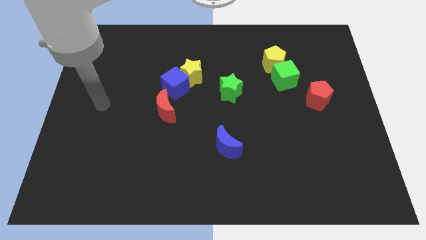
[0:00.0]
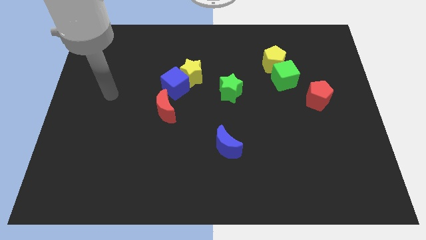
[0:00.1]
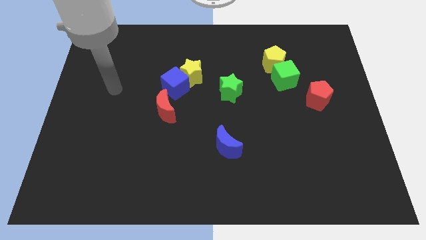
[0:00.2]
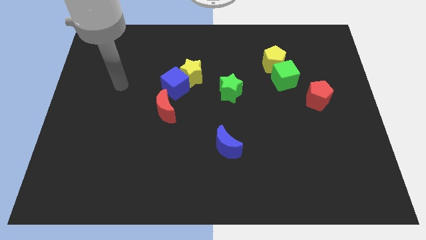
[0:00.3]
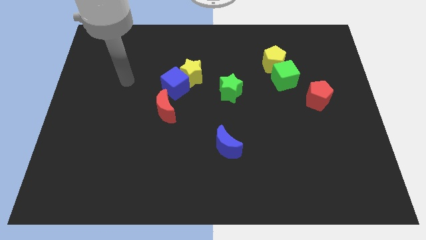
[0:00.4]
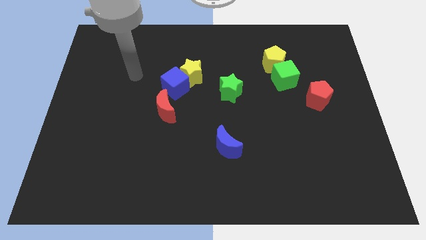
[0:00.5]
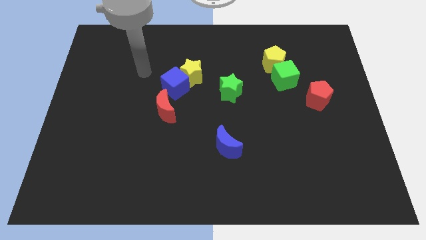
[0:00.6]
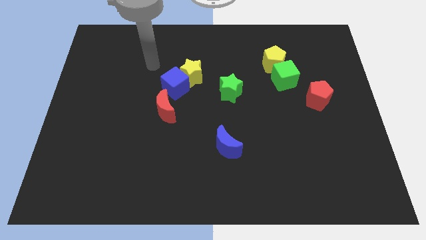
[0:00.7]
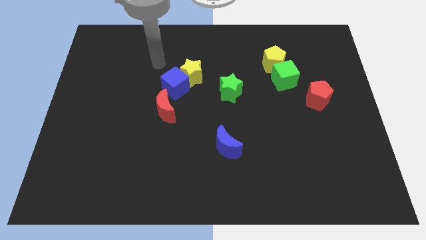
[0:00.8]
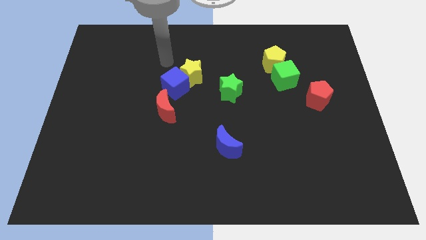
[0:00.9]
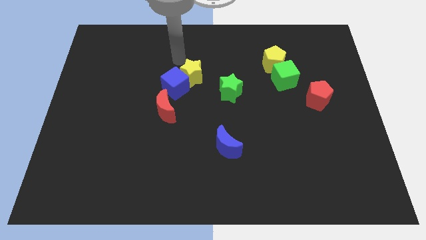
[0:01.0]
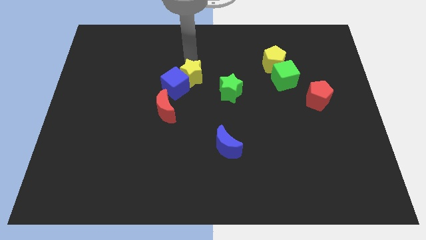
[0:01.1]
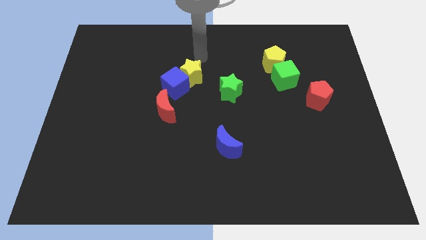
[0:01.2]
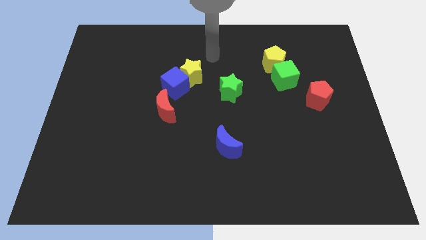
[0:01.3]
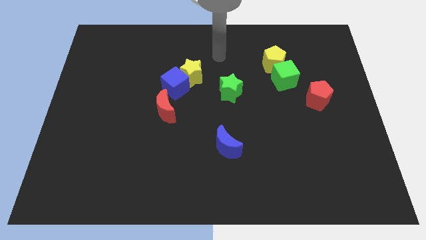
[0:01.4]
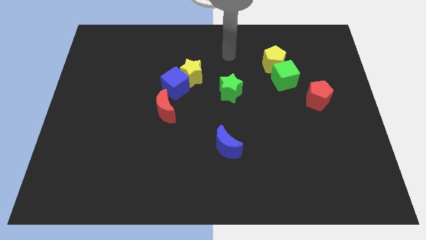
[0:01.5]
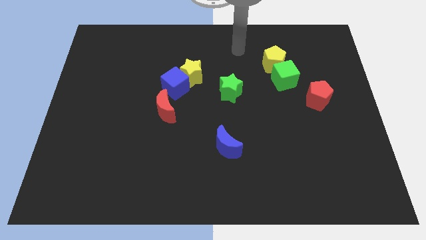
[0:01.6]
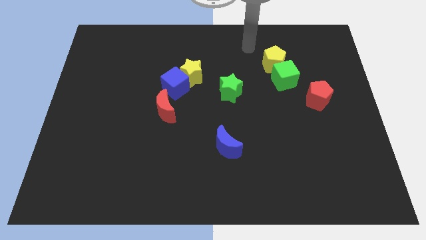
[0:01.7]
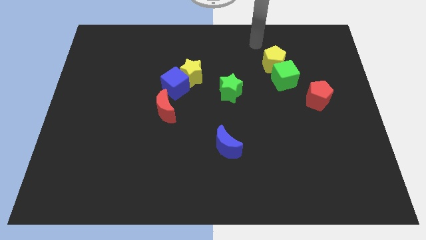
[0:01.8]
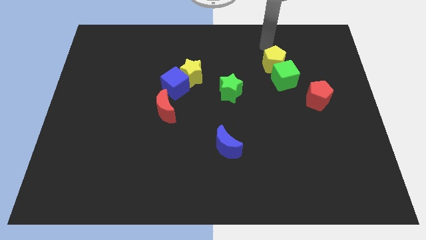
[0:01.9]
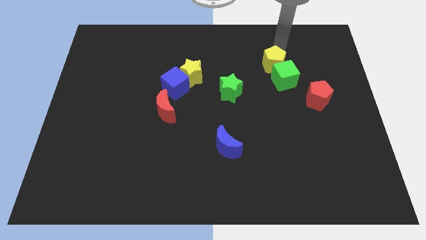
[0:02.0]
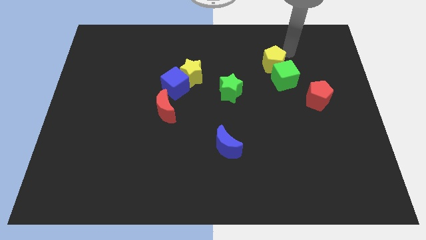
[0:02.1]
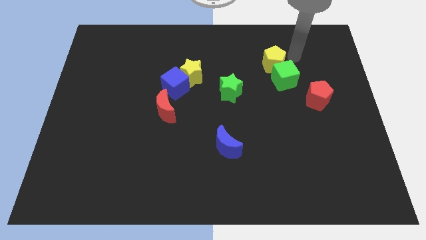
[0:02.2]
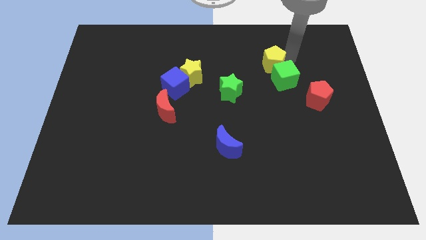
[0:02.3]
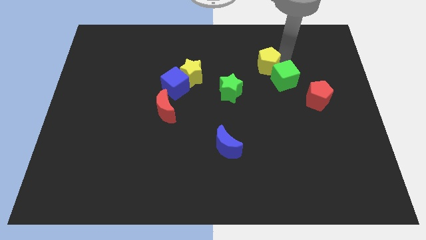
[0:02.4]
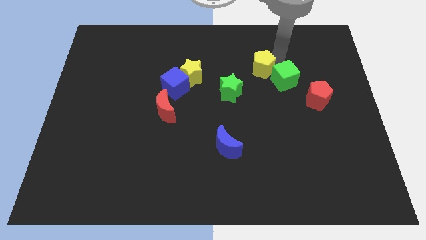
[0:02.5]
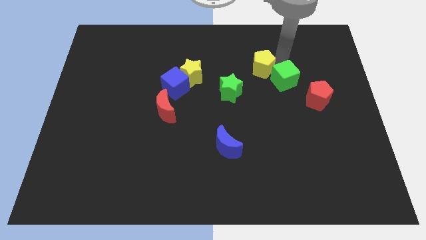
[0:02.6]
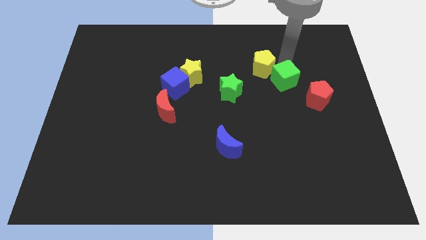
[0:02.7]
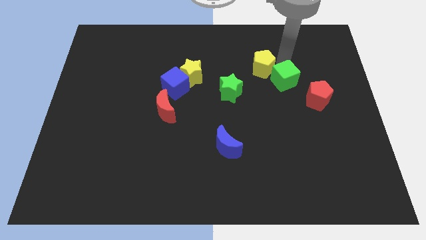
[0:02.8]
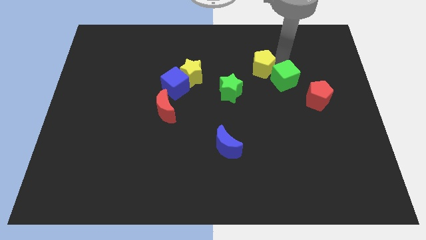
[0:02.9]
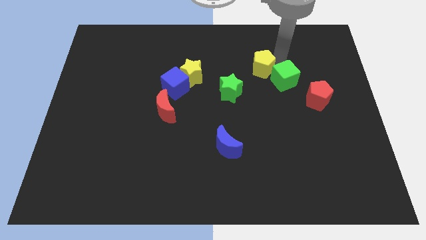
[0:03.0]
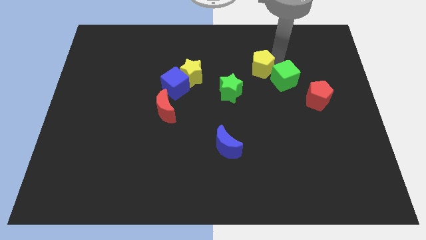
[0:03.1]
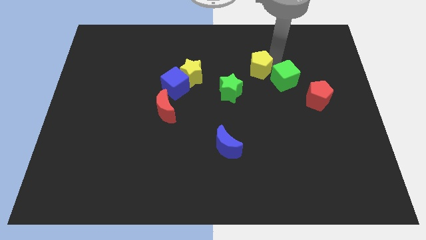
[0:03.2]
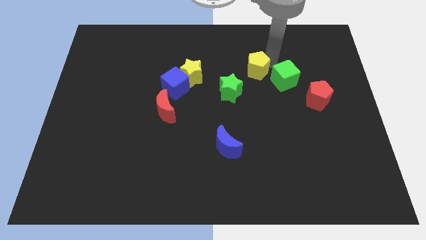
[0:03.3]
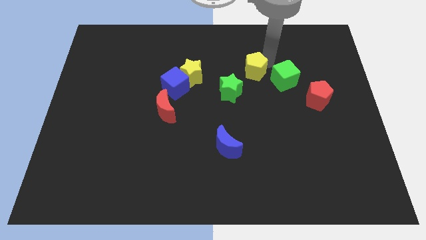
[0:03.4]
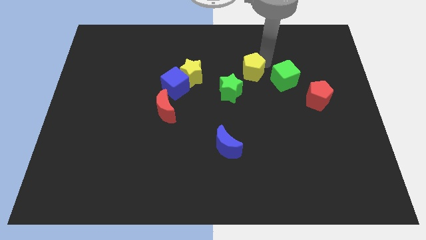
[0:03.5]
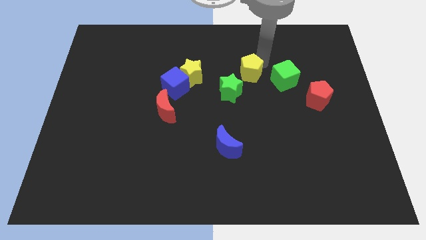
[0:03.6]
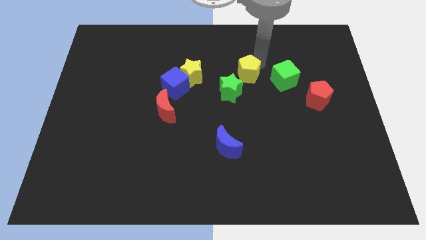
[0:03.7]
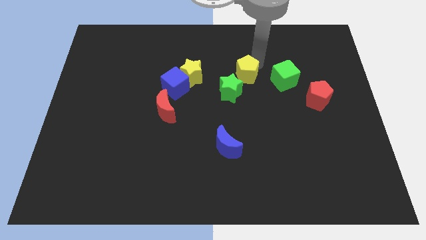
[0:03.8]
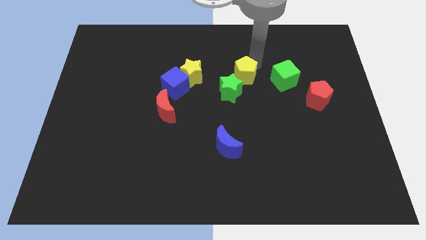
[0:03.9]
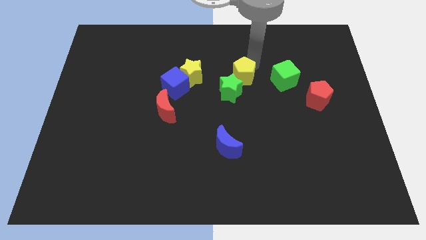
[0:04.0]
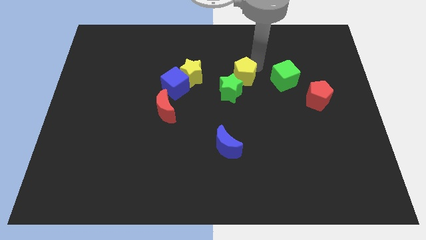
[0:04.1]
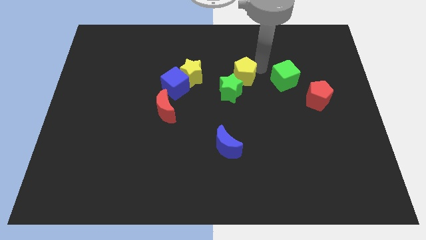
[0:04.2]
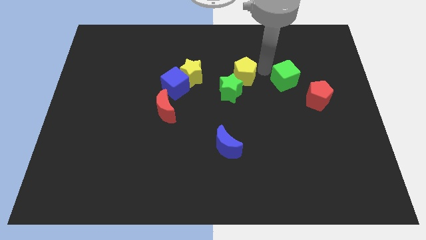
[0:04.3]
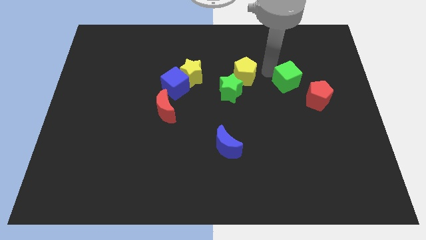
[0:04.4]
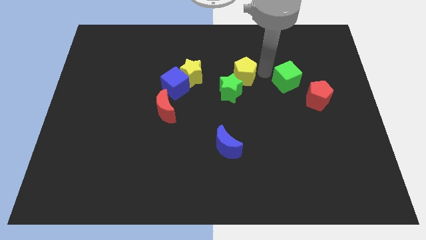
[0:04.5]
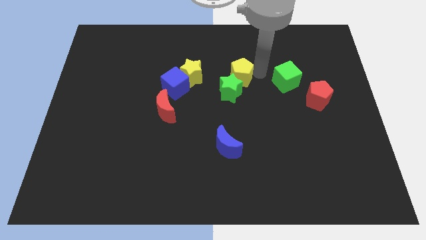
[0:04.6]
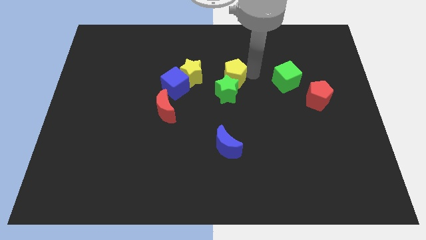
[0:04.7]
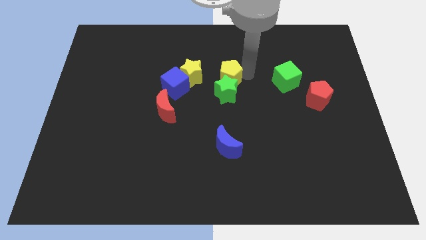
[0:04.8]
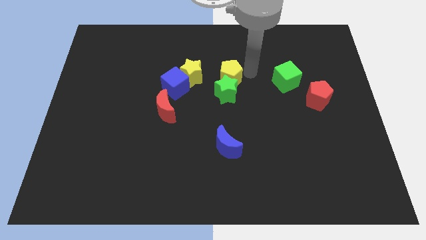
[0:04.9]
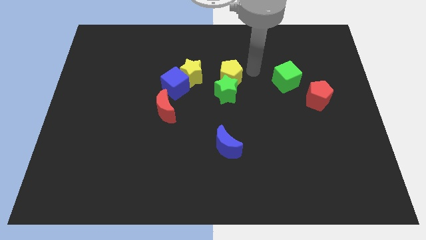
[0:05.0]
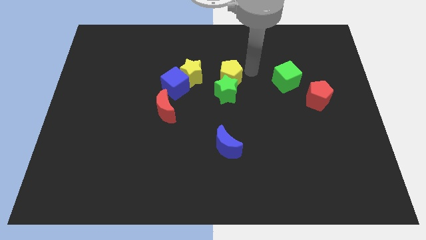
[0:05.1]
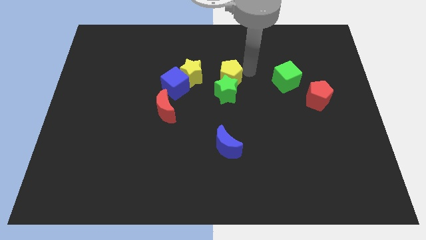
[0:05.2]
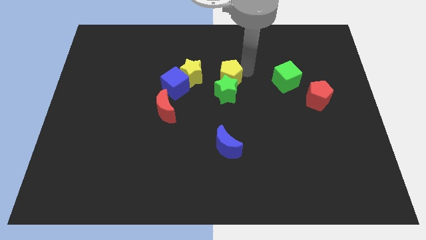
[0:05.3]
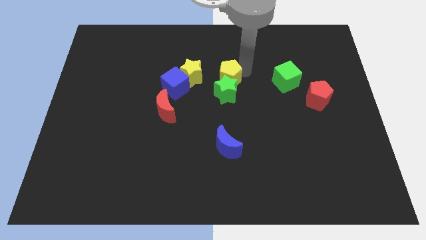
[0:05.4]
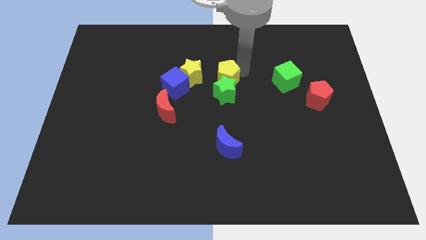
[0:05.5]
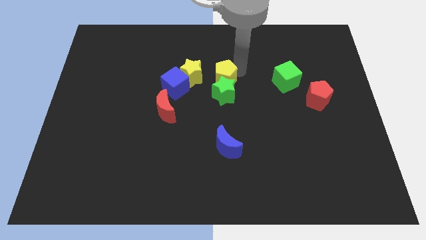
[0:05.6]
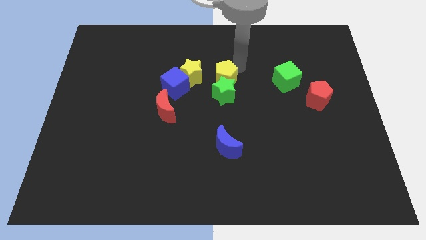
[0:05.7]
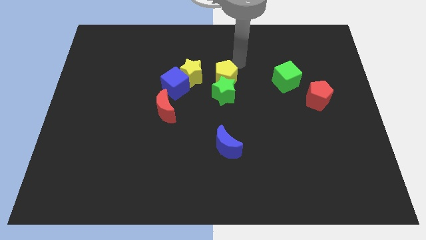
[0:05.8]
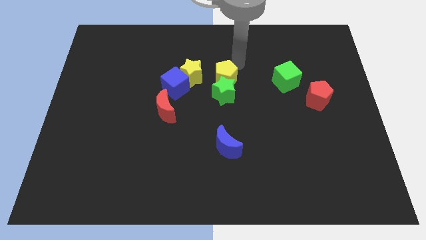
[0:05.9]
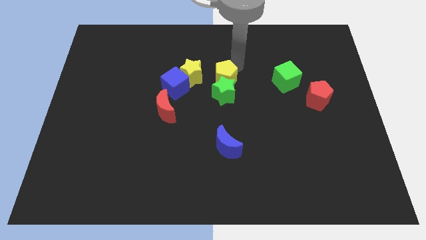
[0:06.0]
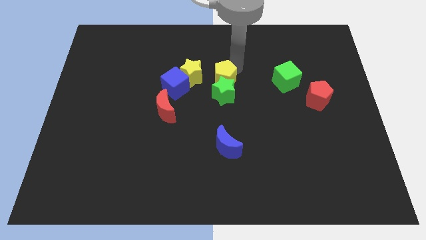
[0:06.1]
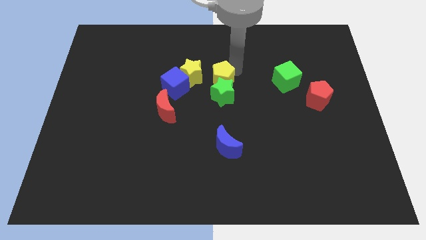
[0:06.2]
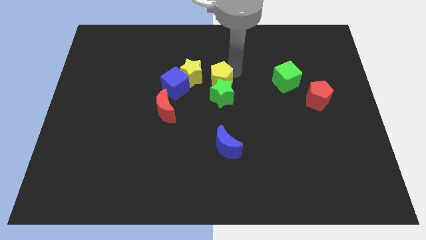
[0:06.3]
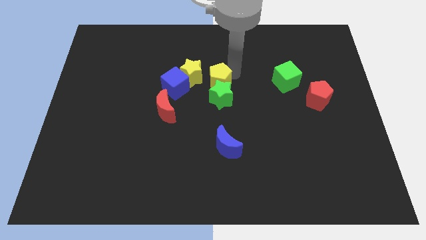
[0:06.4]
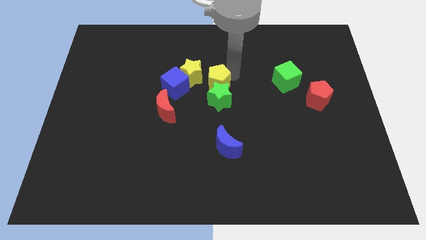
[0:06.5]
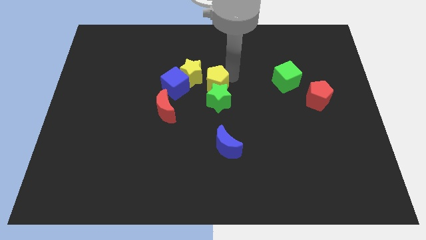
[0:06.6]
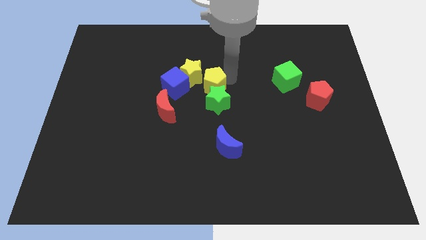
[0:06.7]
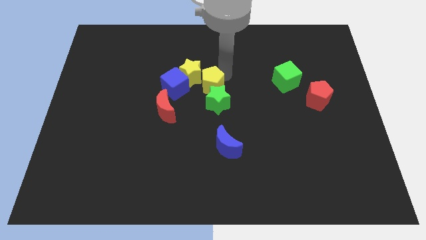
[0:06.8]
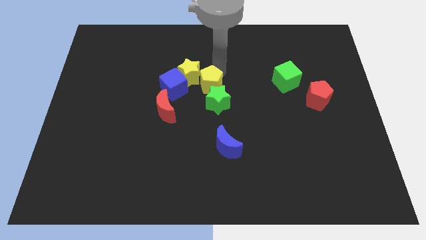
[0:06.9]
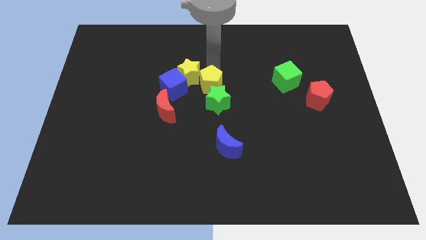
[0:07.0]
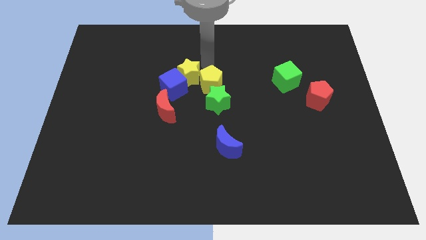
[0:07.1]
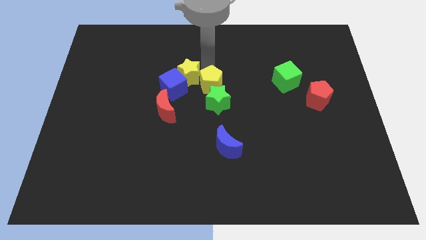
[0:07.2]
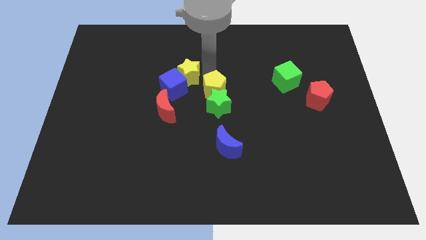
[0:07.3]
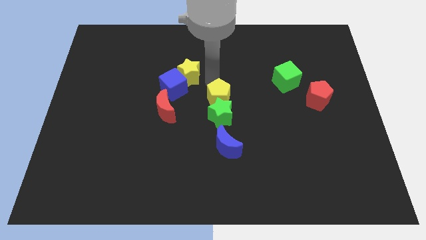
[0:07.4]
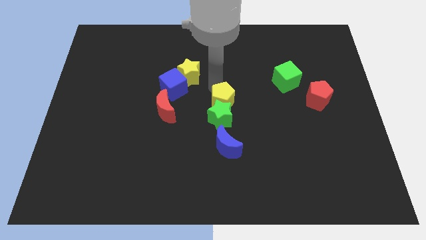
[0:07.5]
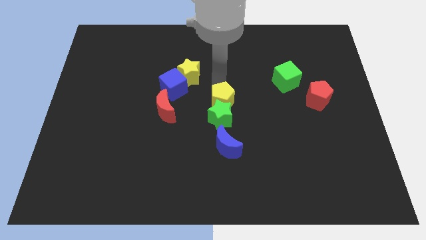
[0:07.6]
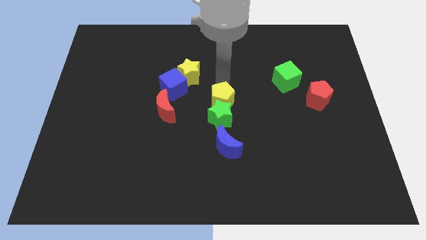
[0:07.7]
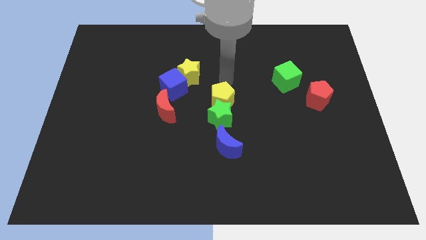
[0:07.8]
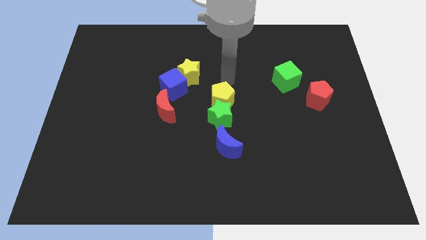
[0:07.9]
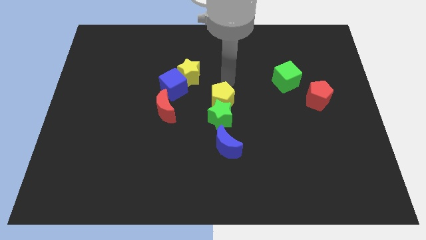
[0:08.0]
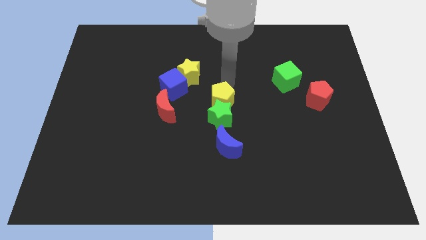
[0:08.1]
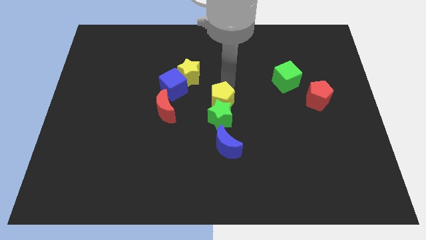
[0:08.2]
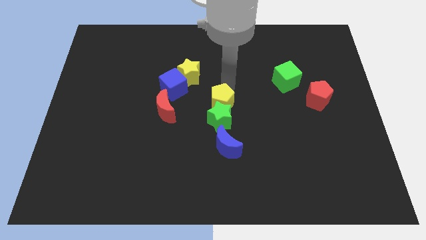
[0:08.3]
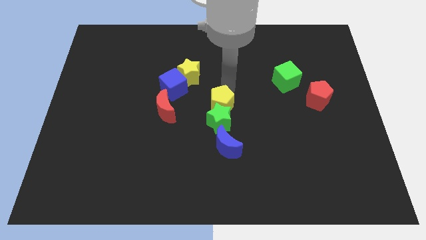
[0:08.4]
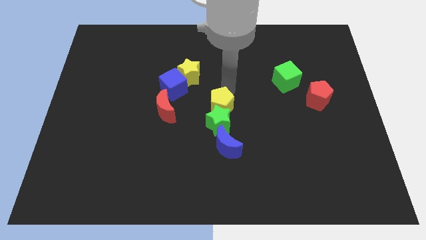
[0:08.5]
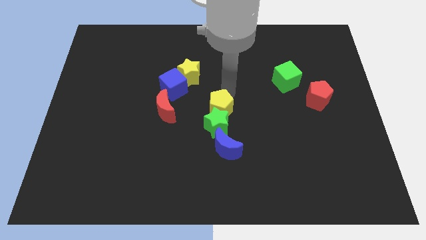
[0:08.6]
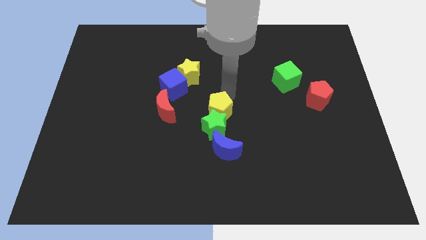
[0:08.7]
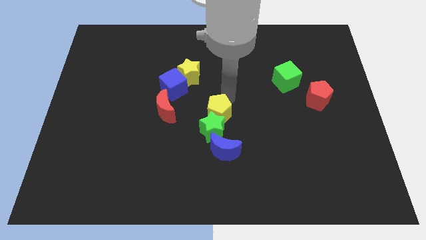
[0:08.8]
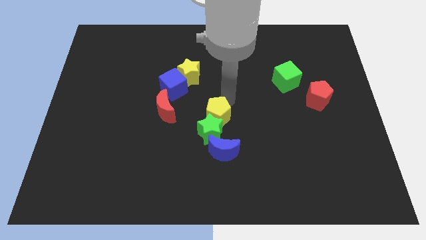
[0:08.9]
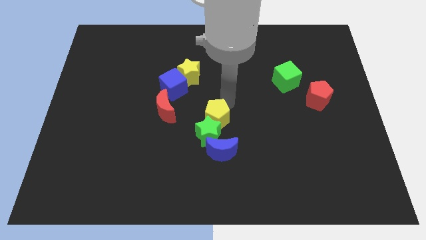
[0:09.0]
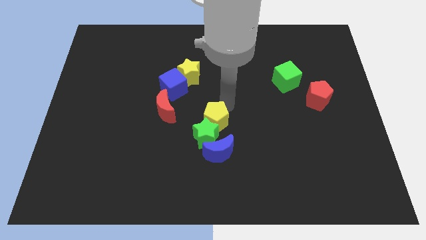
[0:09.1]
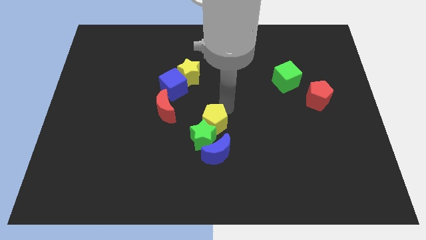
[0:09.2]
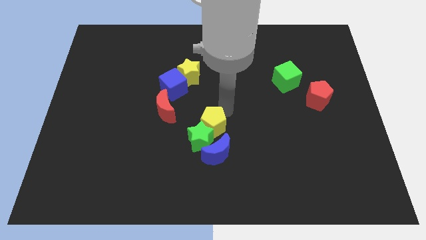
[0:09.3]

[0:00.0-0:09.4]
push the yellow pentagon to the top left of the blue moon
